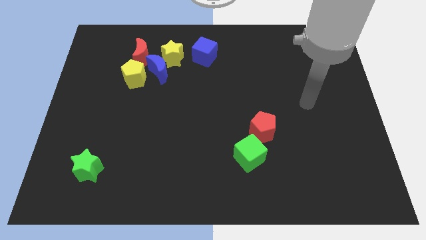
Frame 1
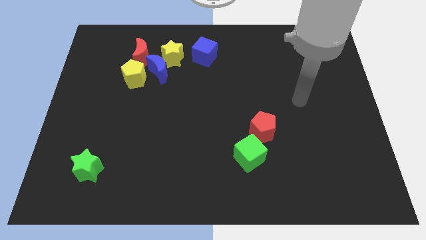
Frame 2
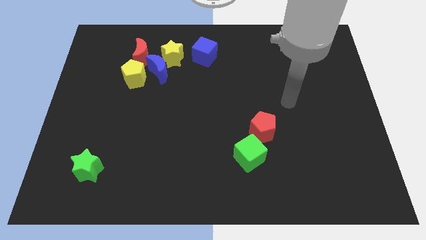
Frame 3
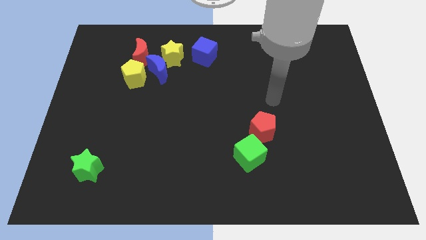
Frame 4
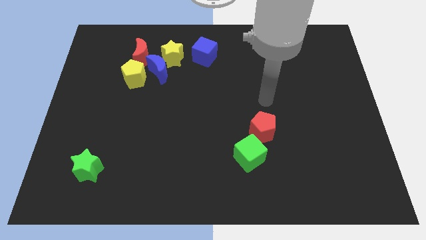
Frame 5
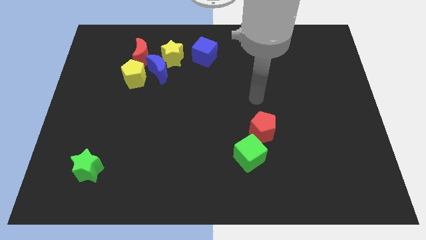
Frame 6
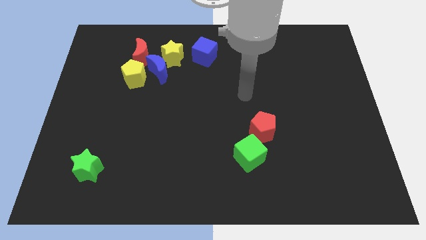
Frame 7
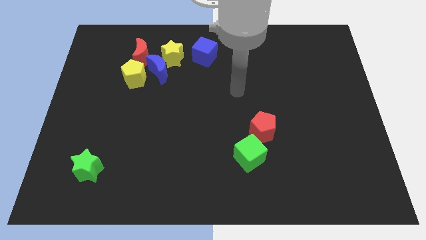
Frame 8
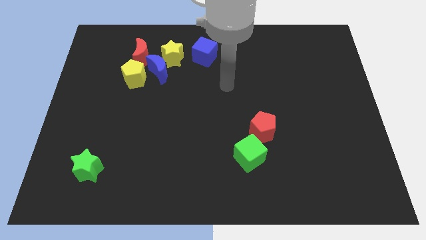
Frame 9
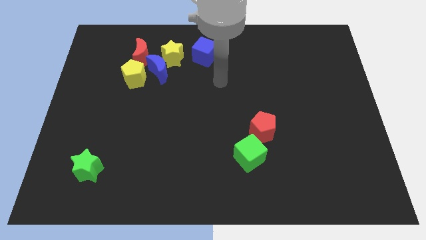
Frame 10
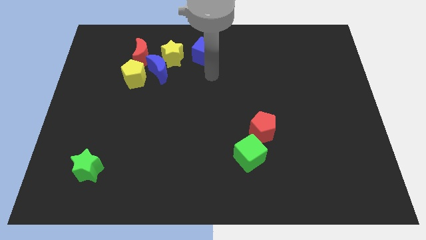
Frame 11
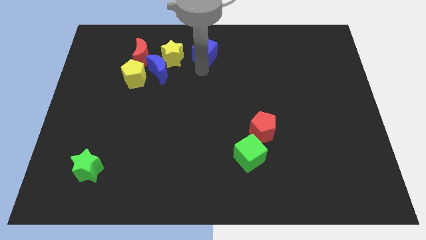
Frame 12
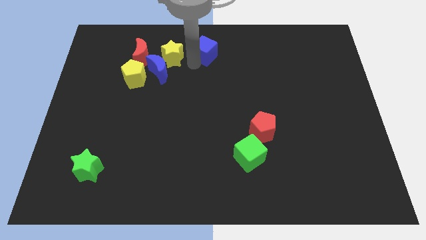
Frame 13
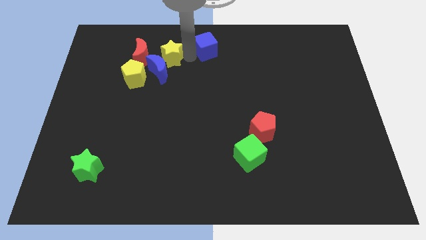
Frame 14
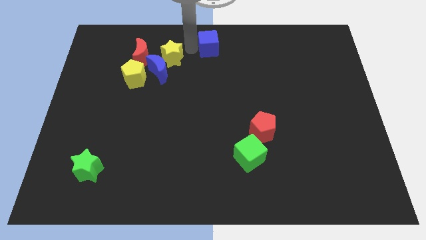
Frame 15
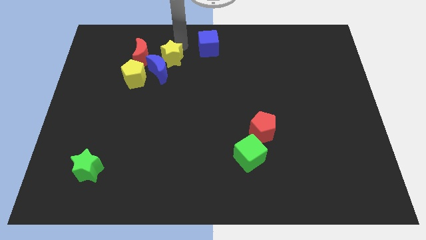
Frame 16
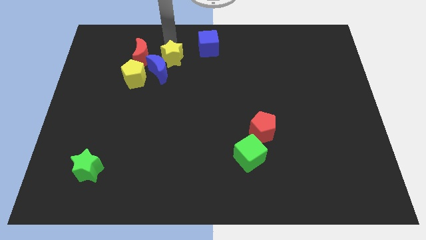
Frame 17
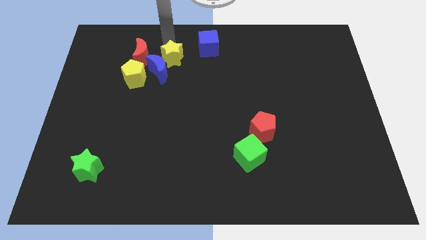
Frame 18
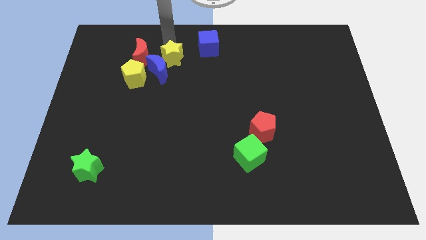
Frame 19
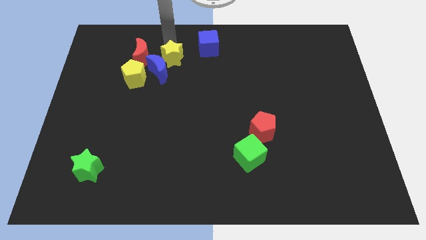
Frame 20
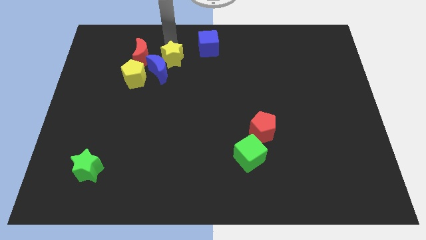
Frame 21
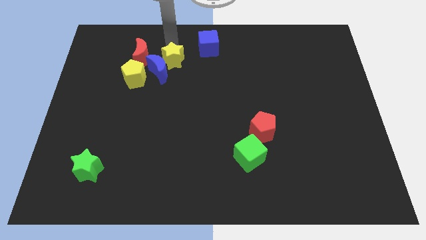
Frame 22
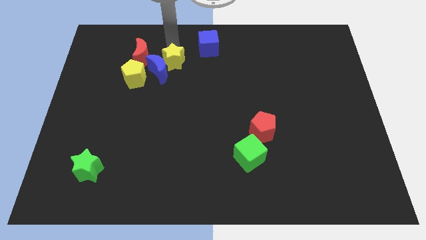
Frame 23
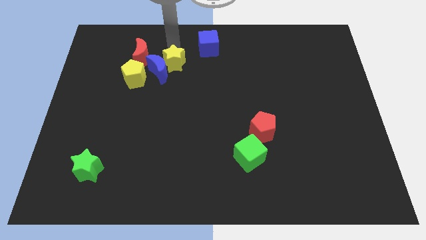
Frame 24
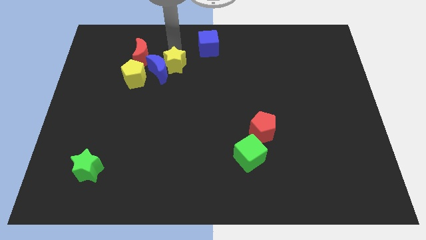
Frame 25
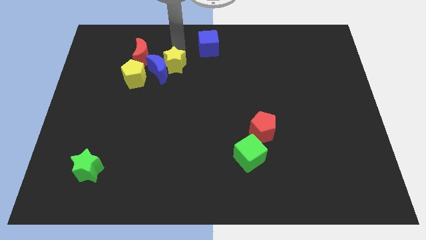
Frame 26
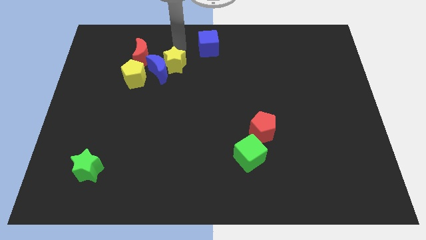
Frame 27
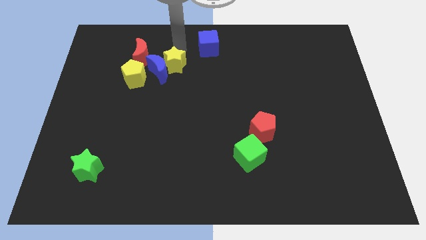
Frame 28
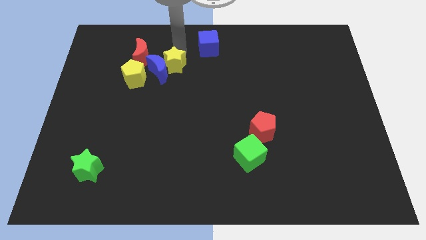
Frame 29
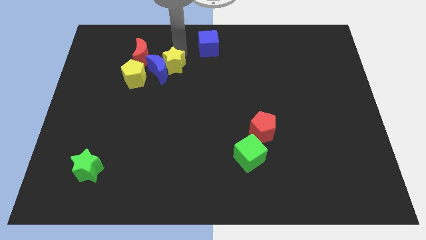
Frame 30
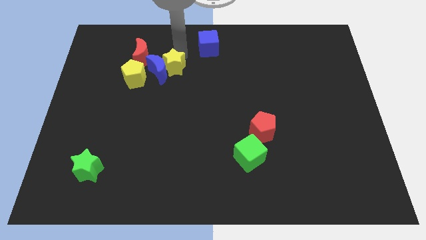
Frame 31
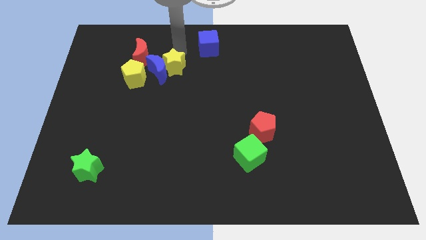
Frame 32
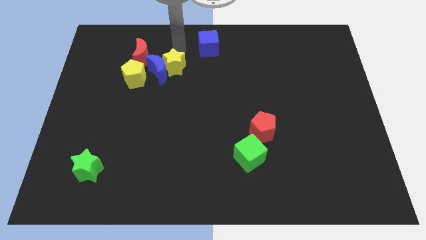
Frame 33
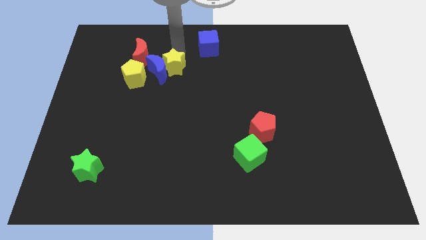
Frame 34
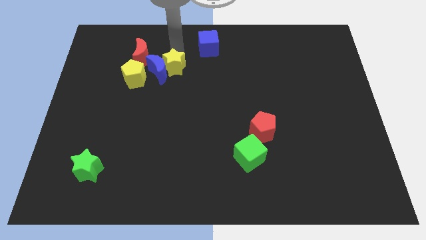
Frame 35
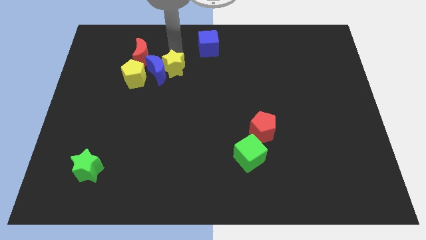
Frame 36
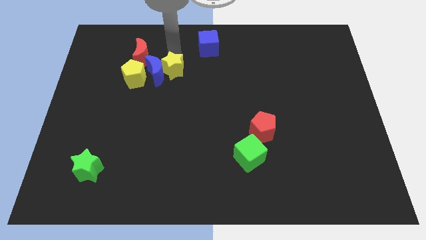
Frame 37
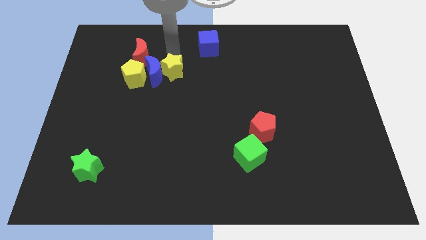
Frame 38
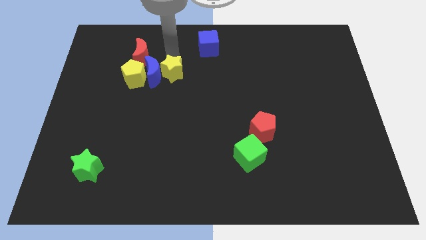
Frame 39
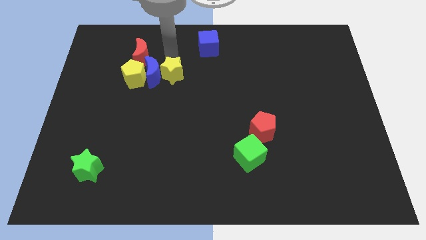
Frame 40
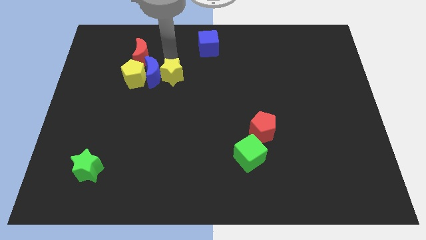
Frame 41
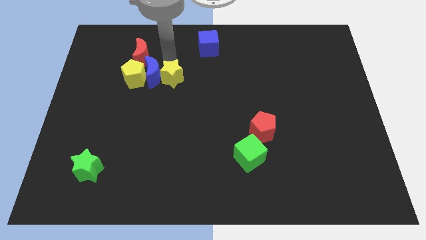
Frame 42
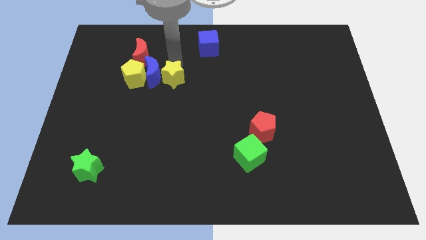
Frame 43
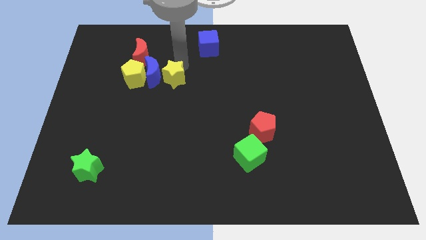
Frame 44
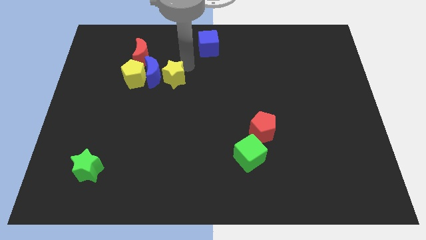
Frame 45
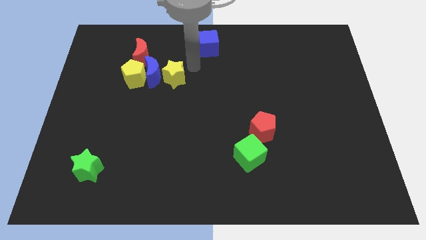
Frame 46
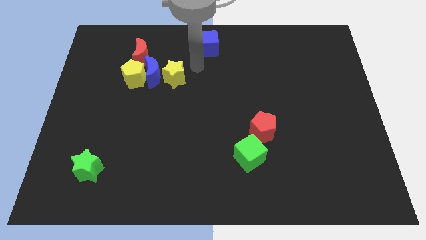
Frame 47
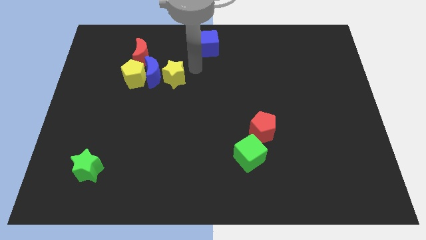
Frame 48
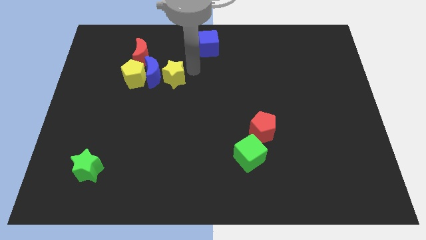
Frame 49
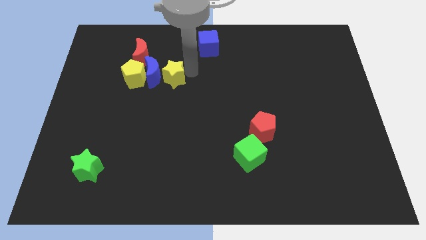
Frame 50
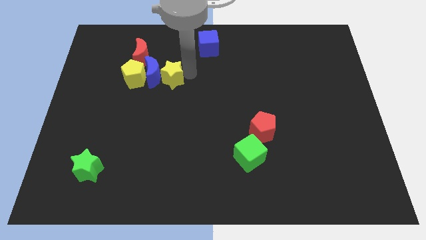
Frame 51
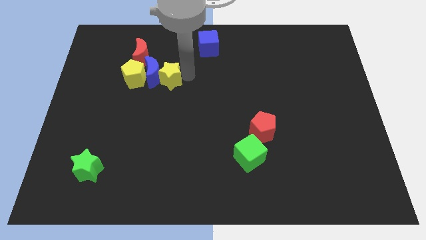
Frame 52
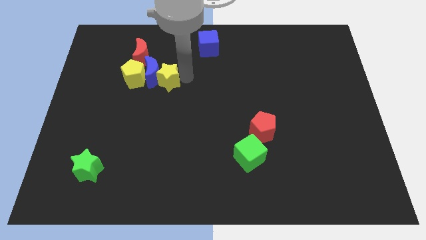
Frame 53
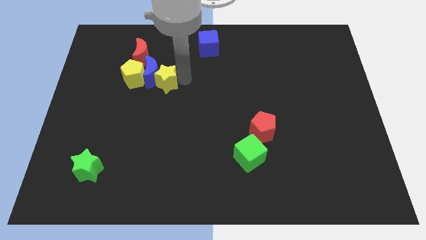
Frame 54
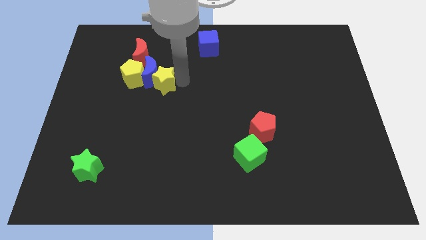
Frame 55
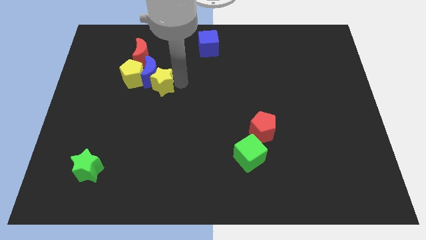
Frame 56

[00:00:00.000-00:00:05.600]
slightly move the yellow star down and left diagonally

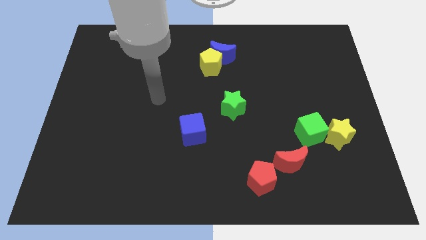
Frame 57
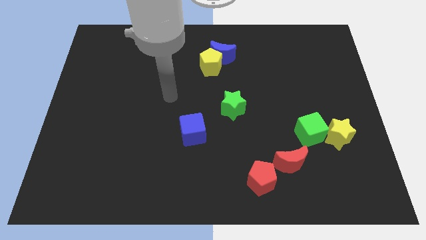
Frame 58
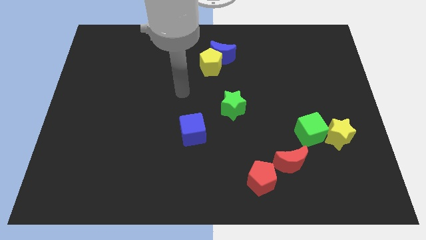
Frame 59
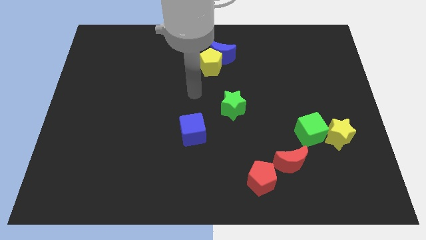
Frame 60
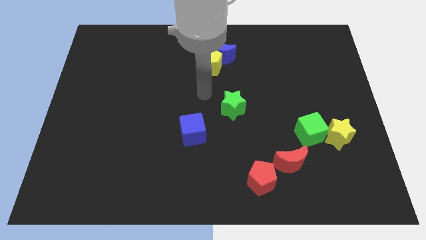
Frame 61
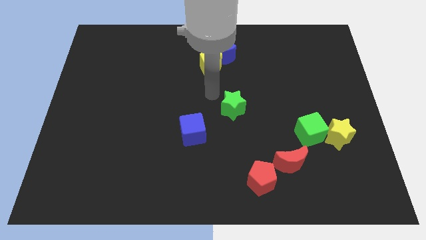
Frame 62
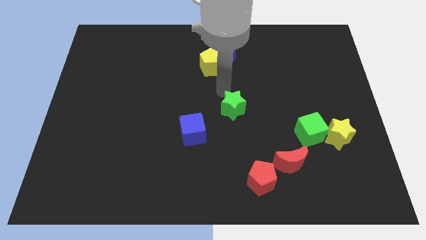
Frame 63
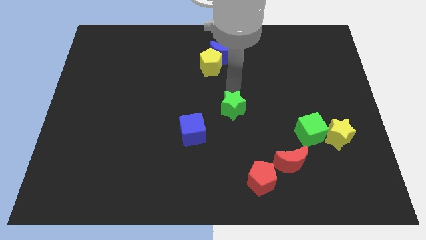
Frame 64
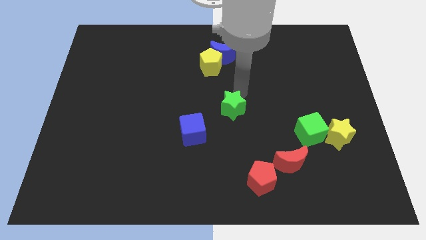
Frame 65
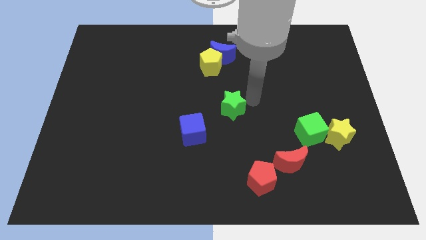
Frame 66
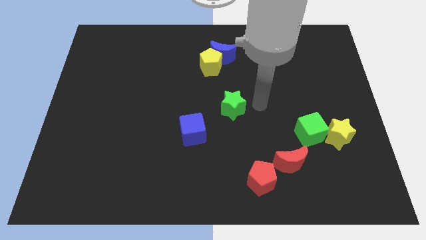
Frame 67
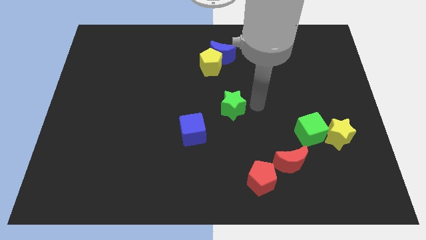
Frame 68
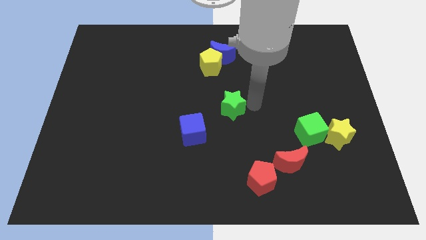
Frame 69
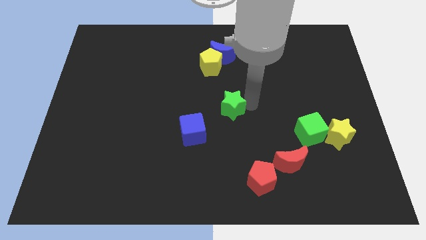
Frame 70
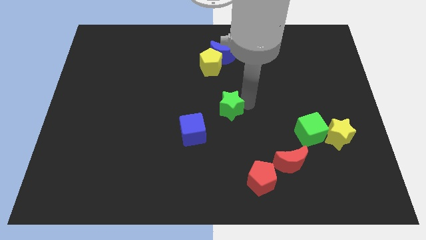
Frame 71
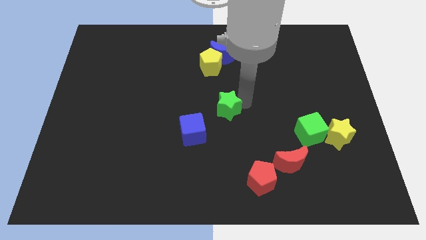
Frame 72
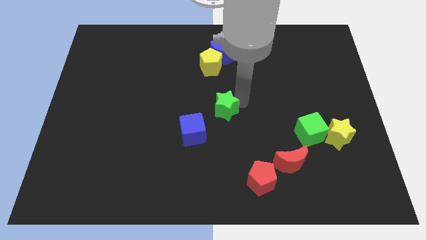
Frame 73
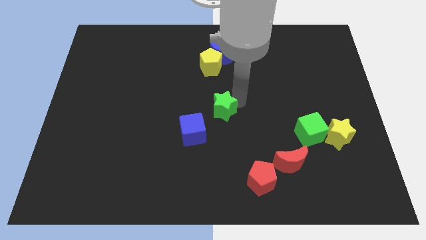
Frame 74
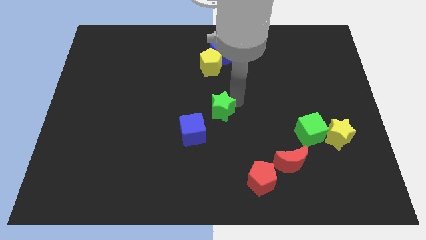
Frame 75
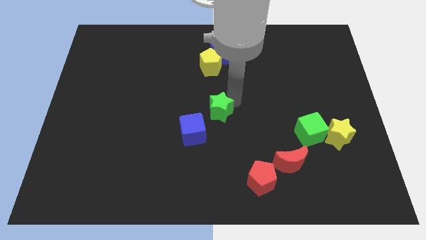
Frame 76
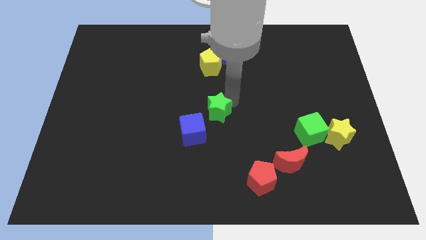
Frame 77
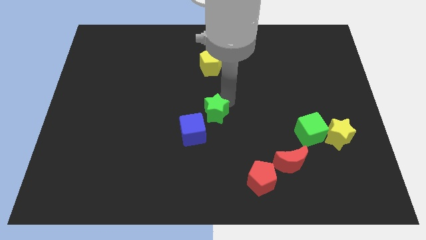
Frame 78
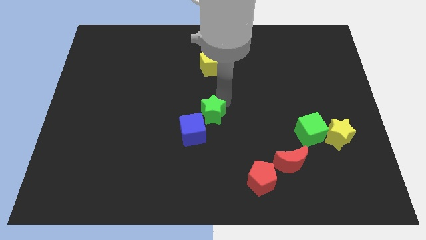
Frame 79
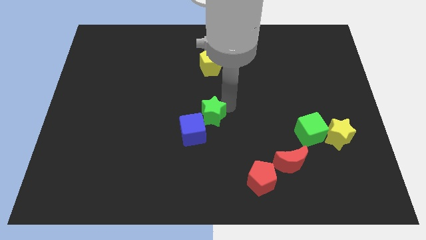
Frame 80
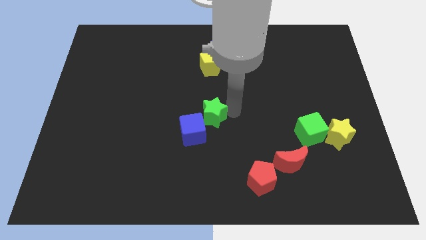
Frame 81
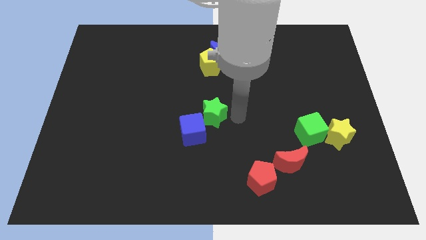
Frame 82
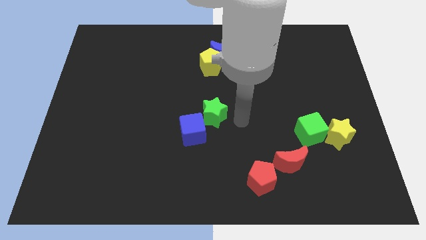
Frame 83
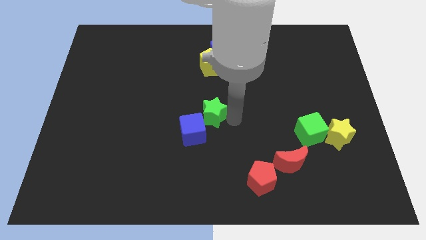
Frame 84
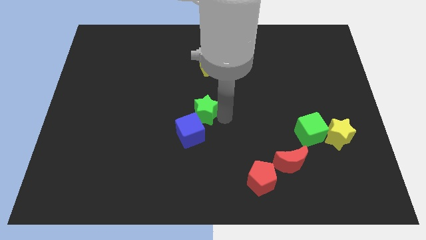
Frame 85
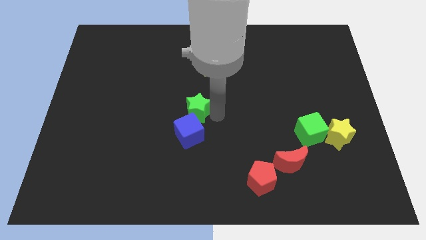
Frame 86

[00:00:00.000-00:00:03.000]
push the green star a little bit to the left
